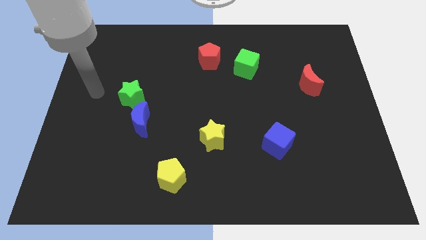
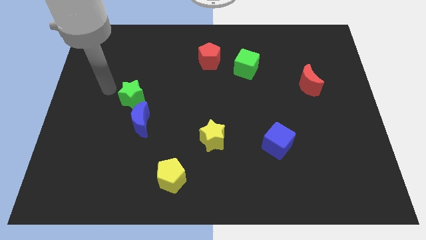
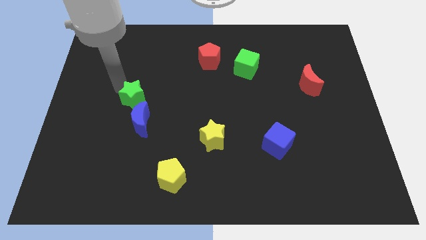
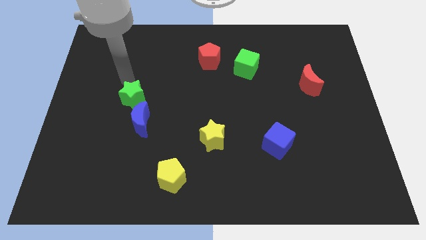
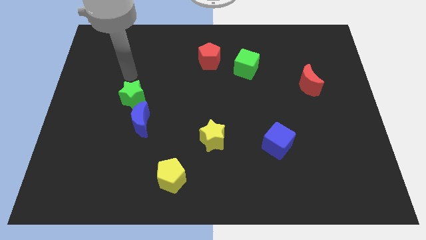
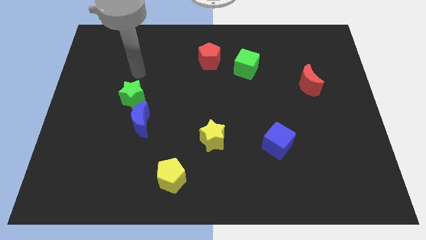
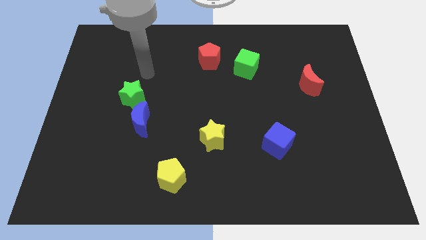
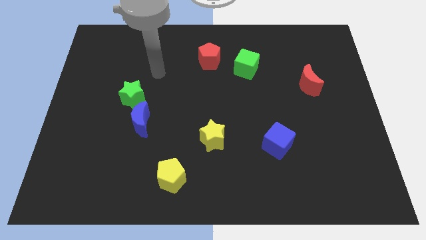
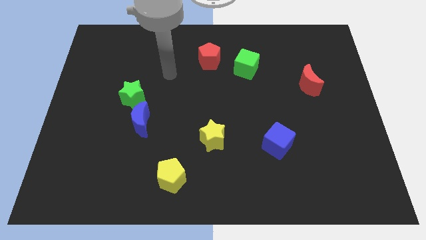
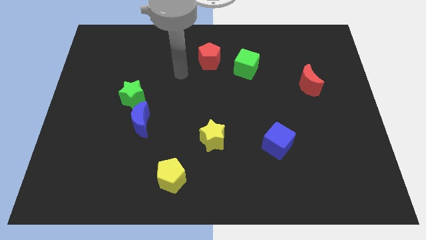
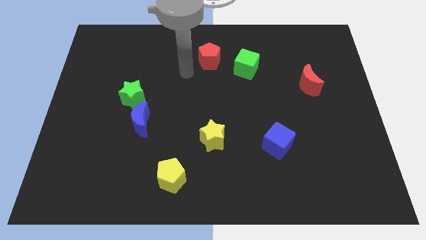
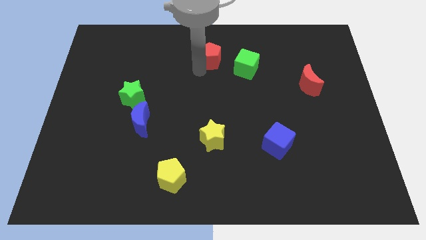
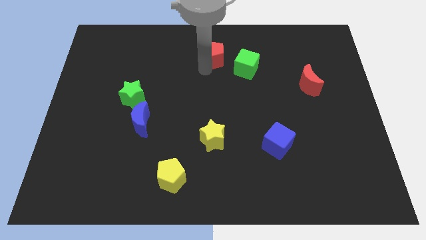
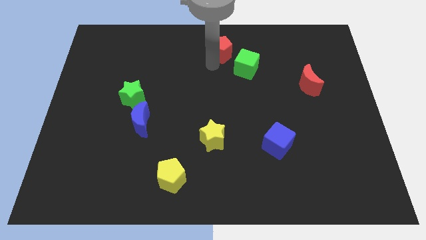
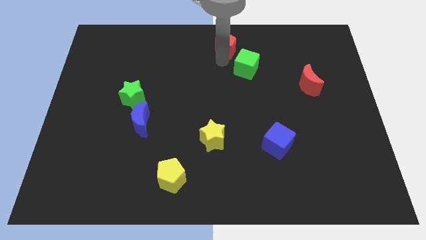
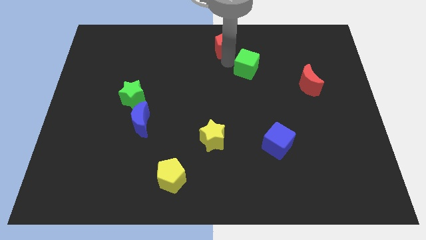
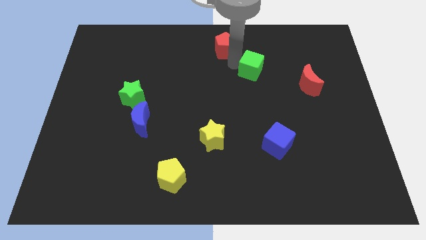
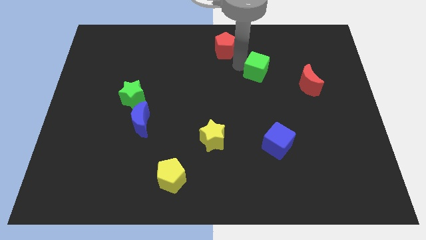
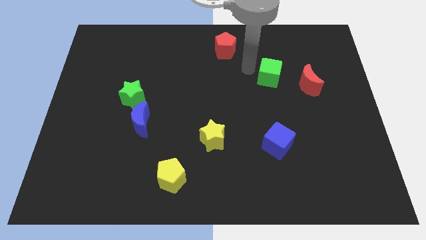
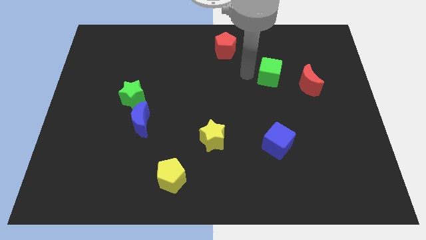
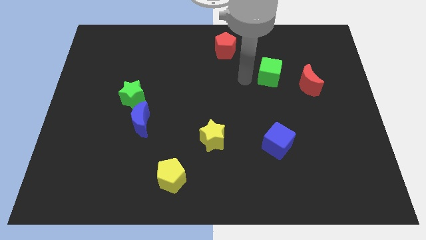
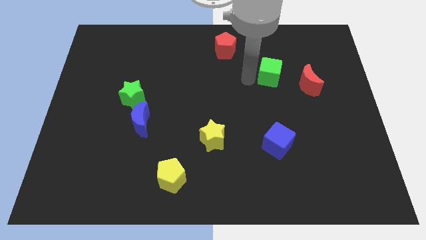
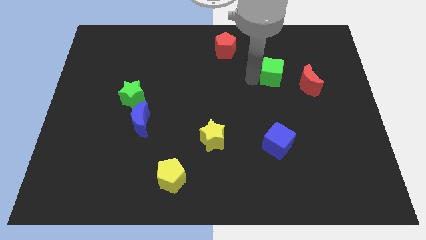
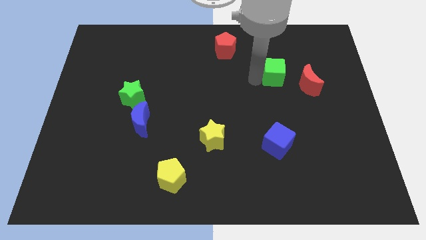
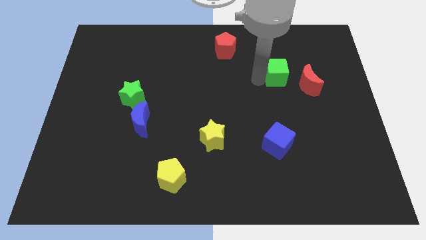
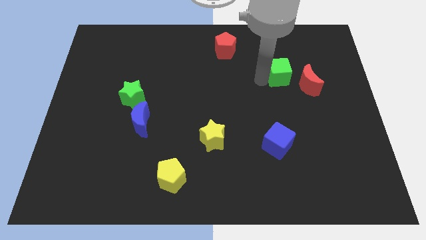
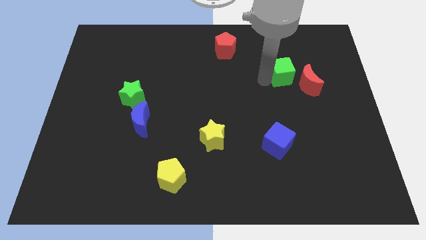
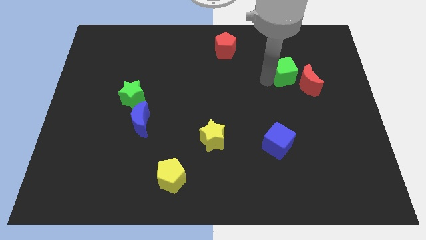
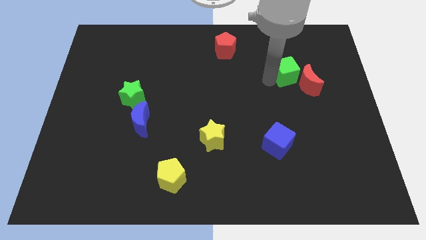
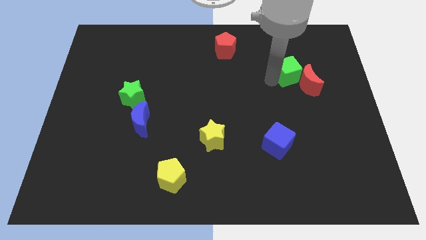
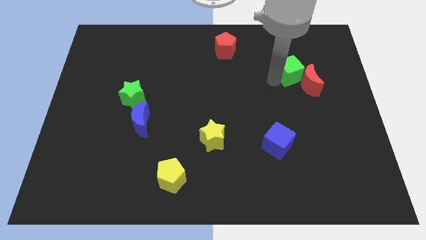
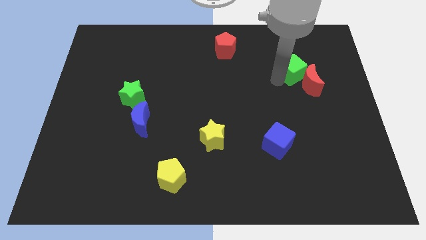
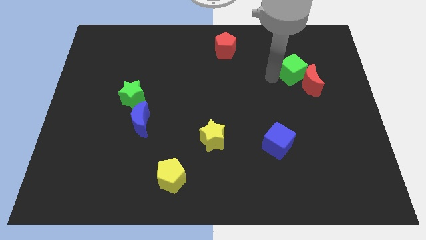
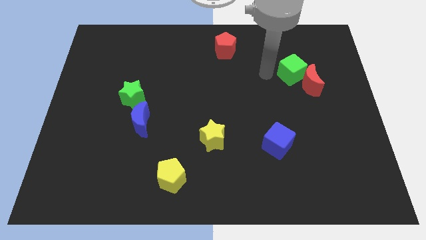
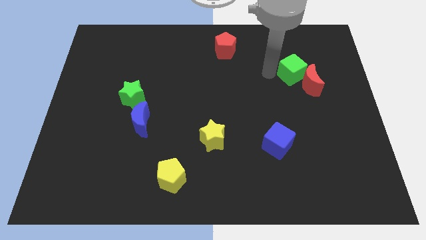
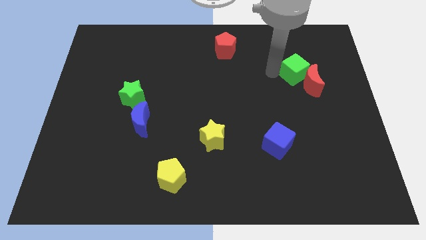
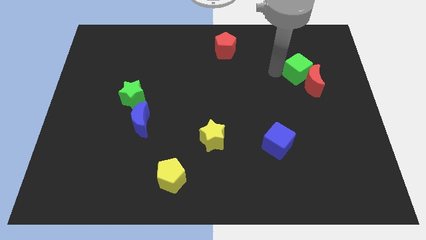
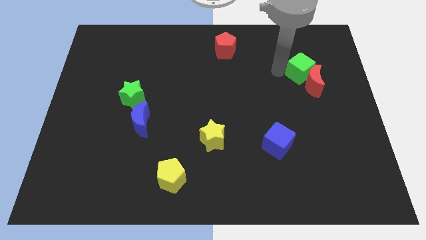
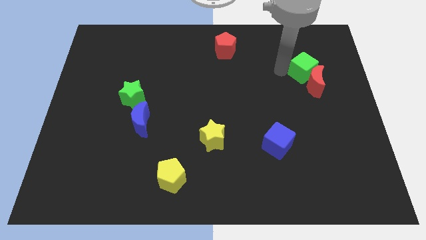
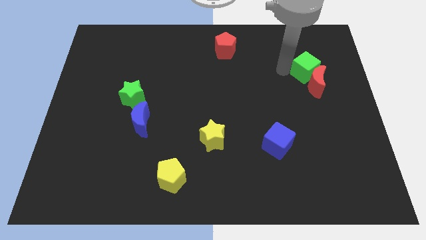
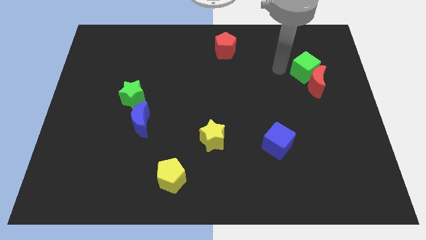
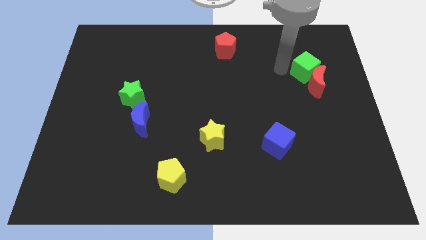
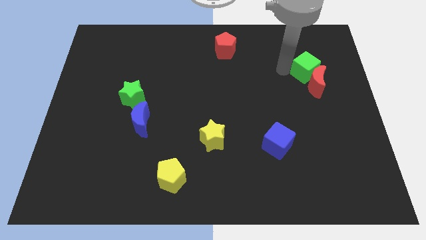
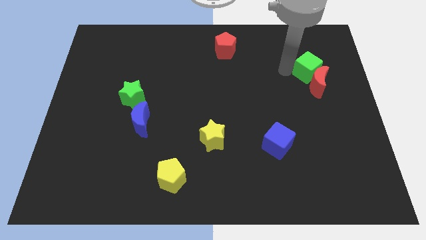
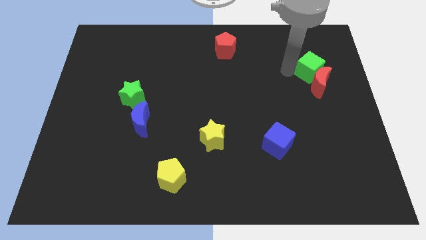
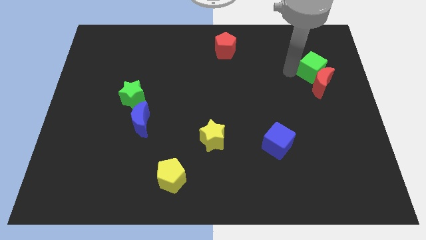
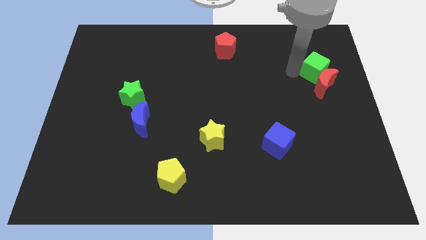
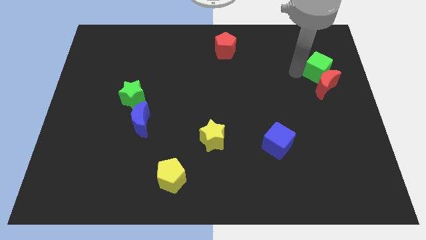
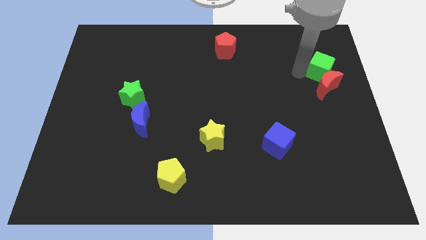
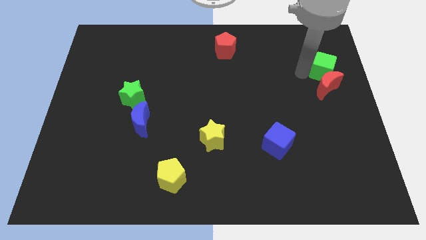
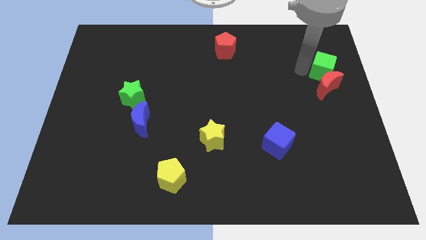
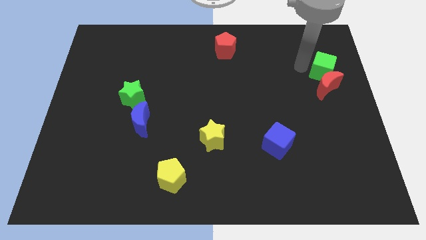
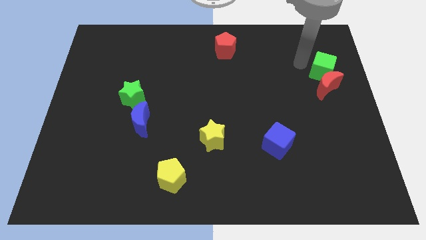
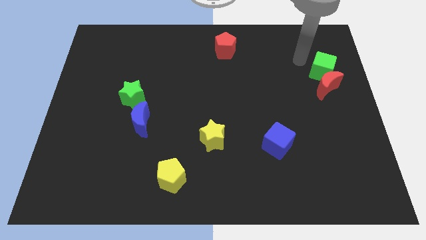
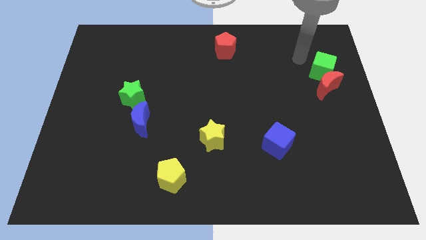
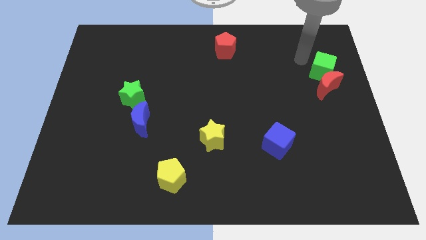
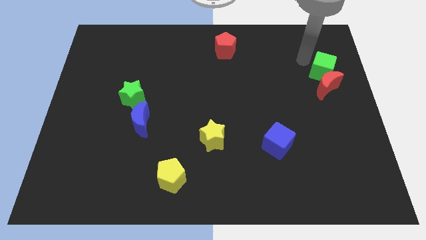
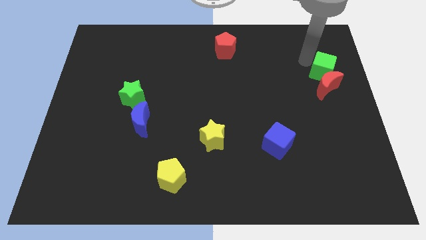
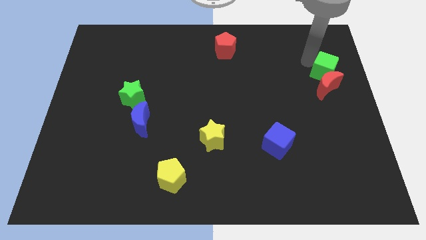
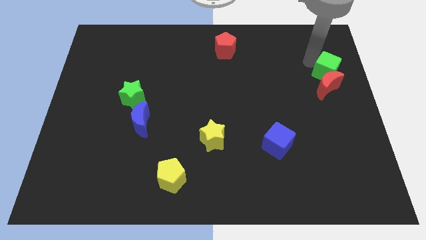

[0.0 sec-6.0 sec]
move the green cube to the center right
